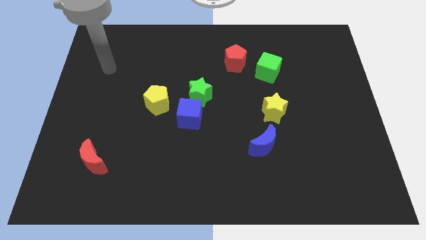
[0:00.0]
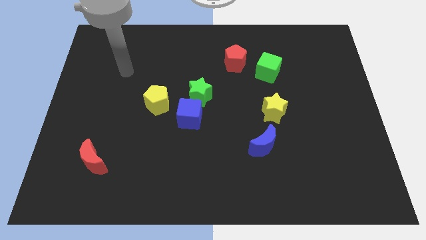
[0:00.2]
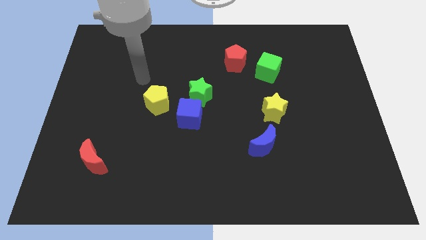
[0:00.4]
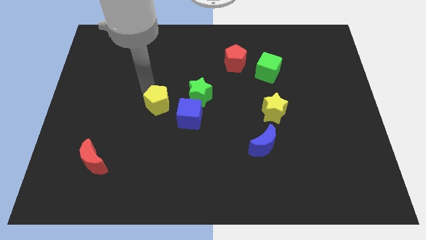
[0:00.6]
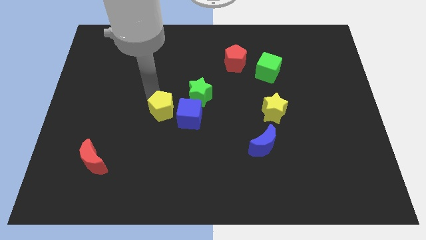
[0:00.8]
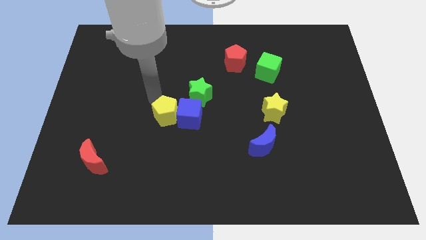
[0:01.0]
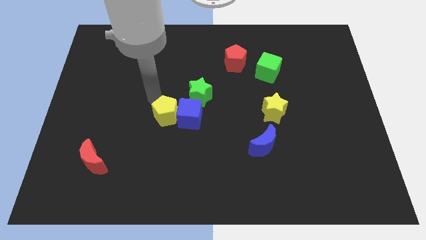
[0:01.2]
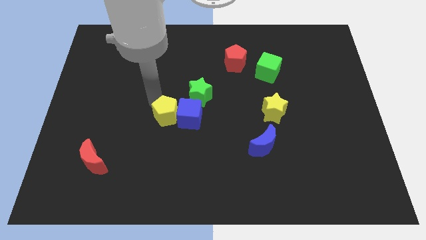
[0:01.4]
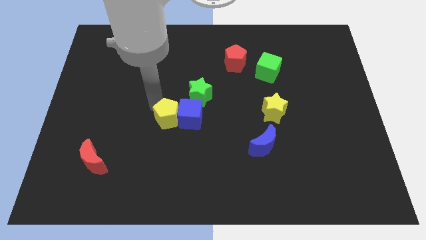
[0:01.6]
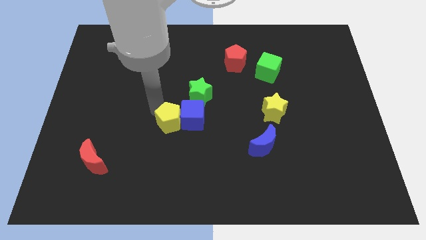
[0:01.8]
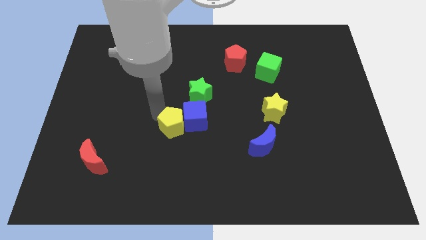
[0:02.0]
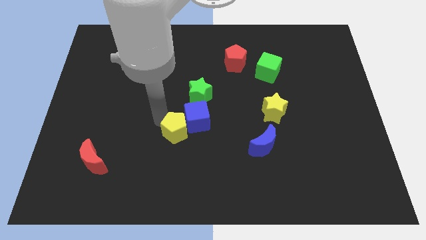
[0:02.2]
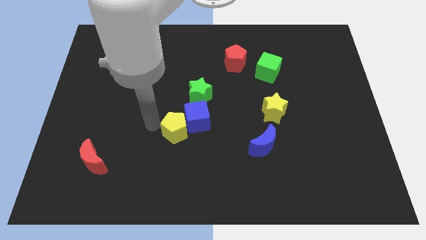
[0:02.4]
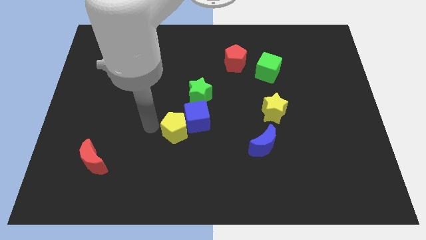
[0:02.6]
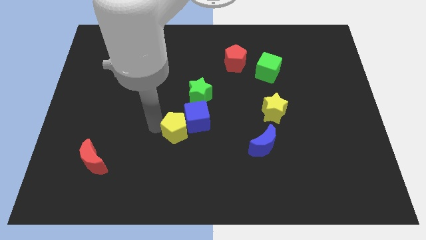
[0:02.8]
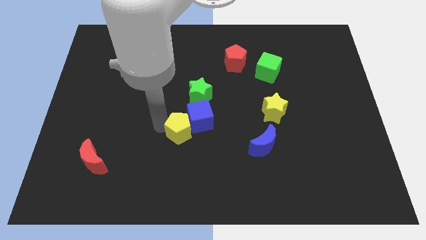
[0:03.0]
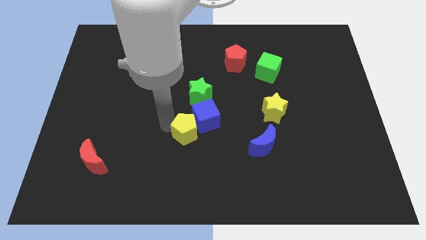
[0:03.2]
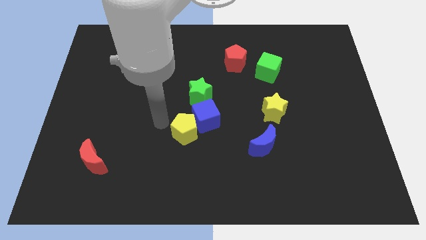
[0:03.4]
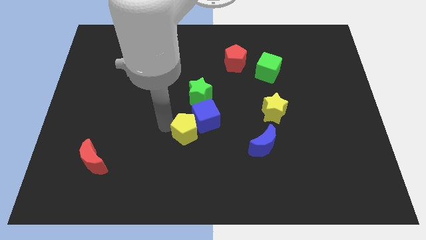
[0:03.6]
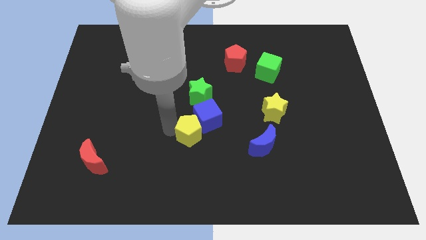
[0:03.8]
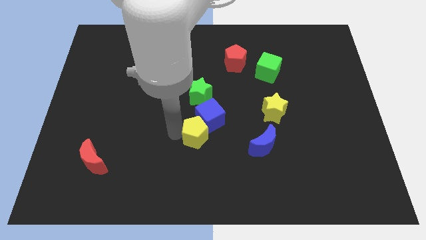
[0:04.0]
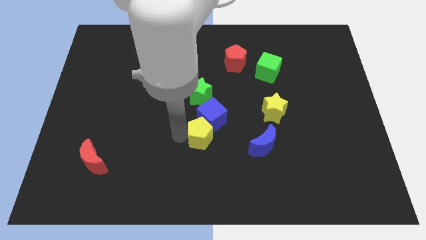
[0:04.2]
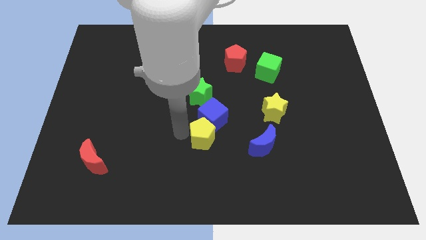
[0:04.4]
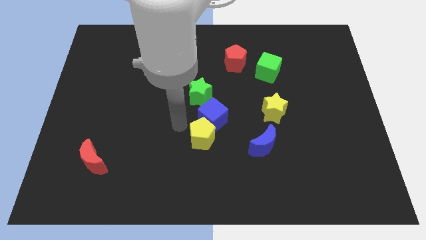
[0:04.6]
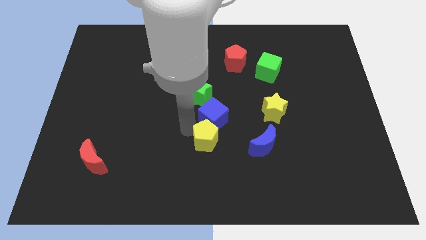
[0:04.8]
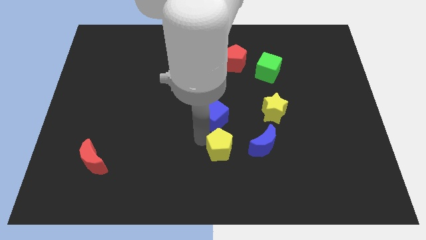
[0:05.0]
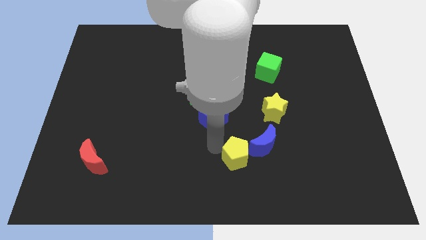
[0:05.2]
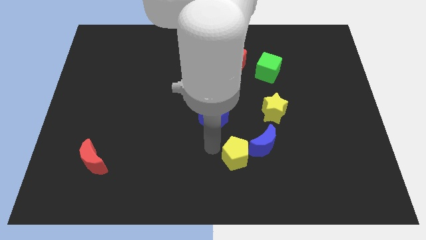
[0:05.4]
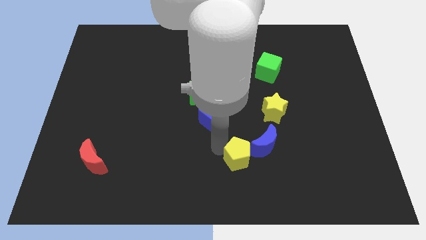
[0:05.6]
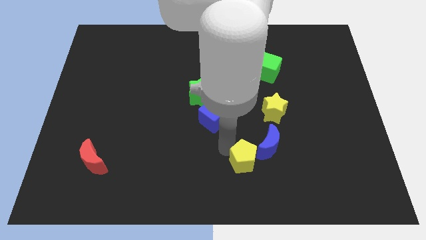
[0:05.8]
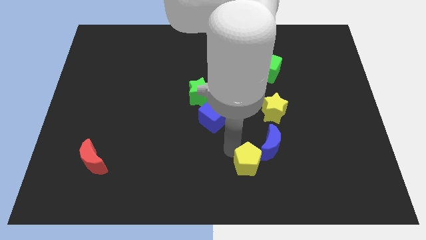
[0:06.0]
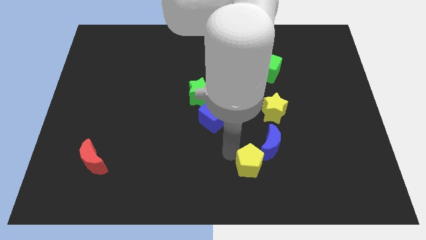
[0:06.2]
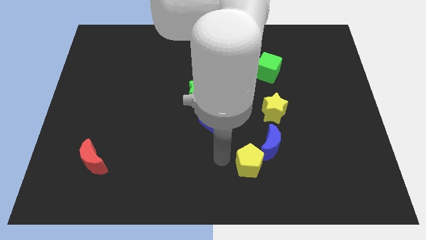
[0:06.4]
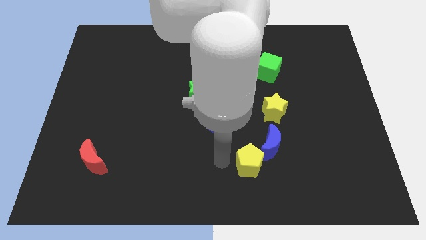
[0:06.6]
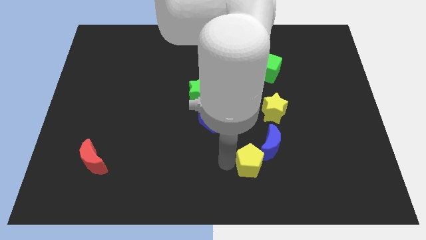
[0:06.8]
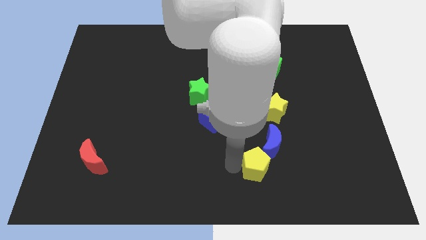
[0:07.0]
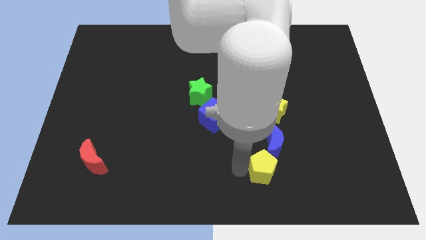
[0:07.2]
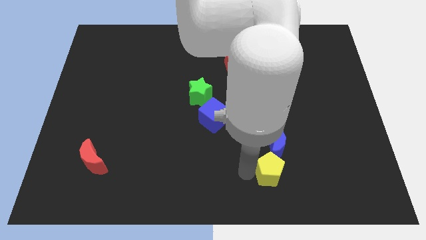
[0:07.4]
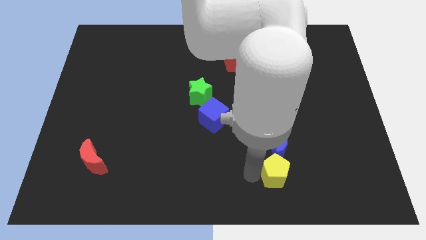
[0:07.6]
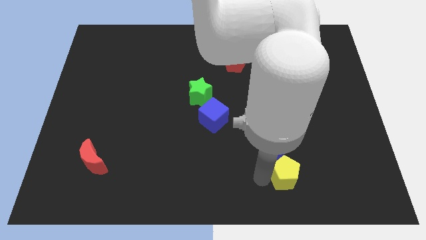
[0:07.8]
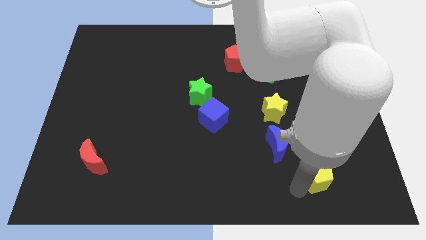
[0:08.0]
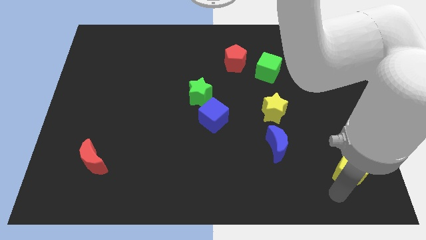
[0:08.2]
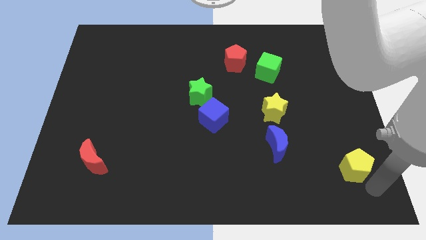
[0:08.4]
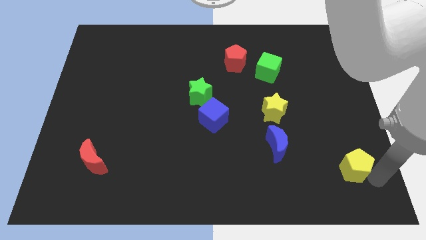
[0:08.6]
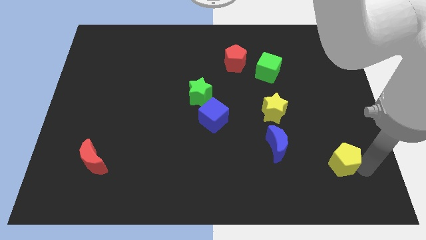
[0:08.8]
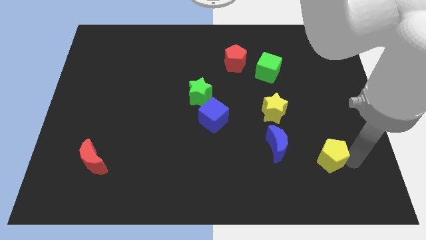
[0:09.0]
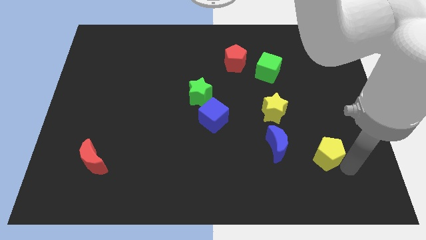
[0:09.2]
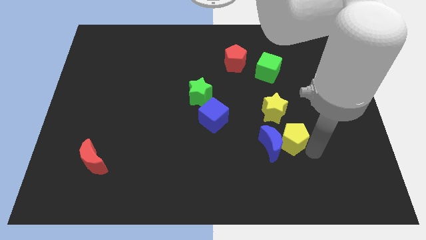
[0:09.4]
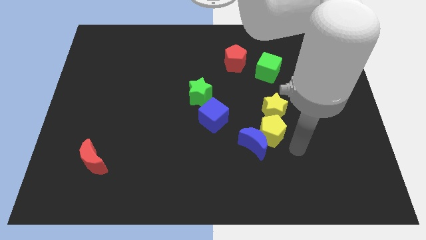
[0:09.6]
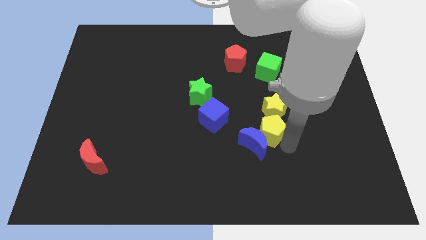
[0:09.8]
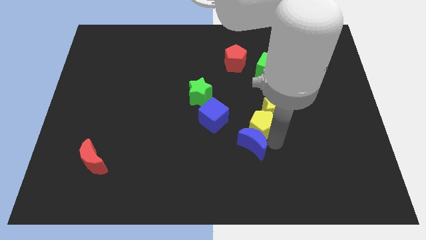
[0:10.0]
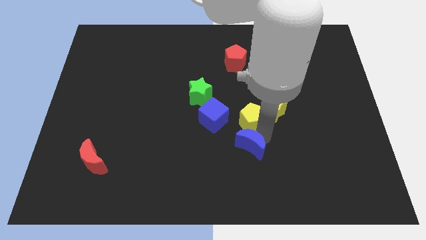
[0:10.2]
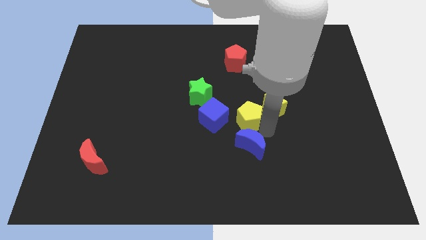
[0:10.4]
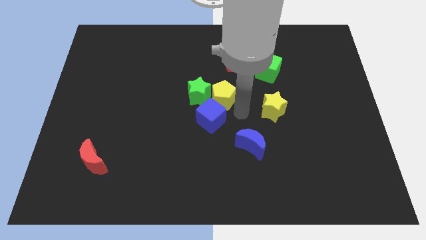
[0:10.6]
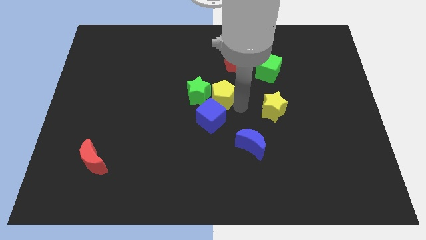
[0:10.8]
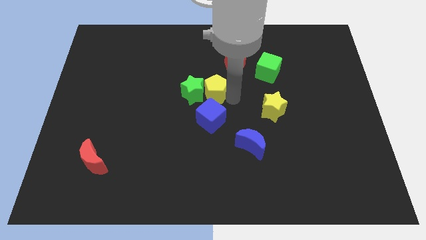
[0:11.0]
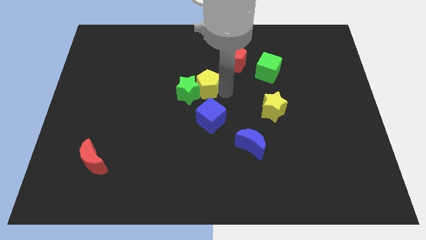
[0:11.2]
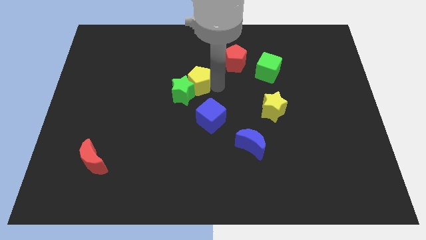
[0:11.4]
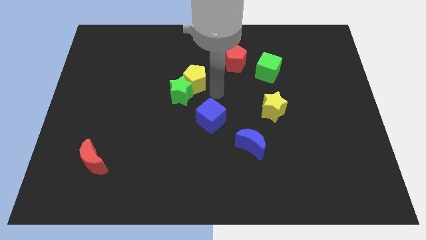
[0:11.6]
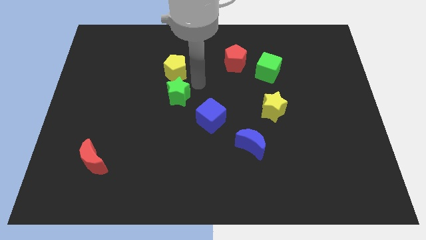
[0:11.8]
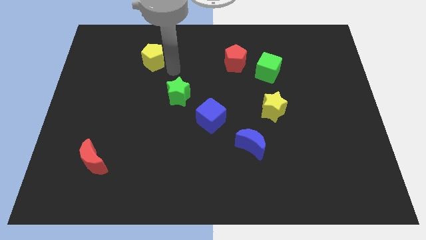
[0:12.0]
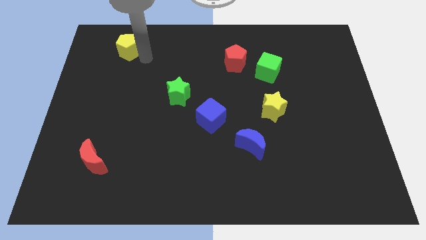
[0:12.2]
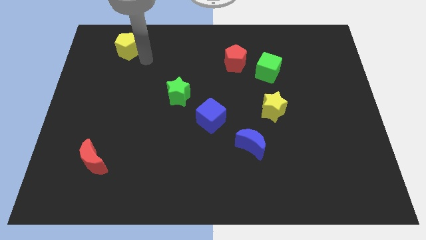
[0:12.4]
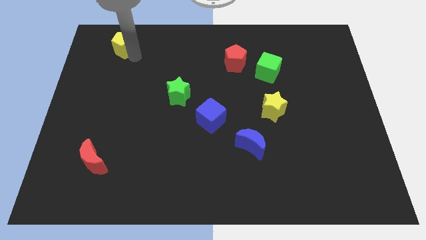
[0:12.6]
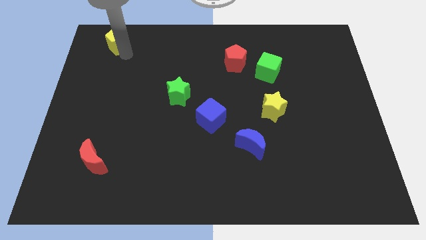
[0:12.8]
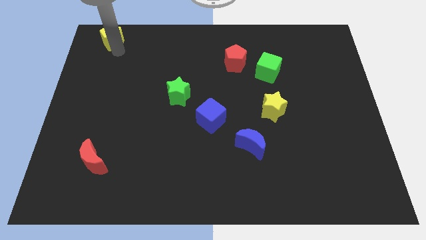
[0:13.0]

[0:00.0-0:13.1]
put the yellow pentagon to the top left corner

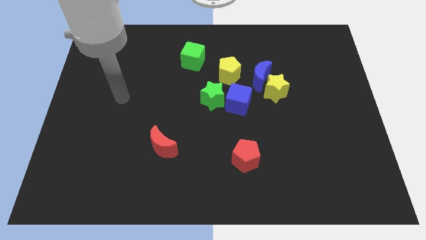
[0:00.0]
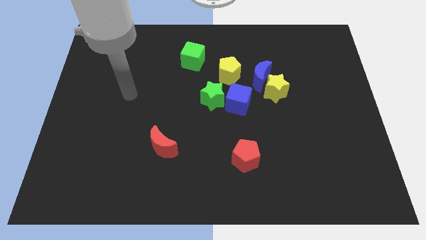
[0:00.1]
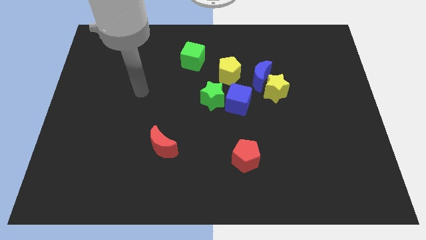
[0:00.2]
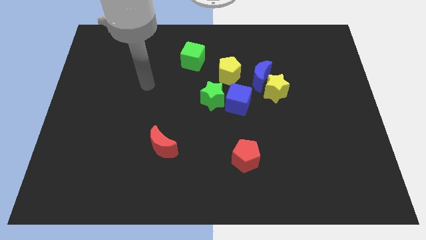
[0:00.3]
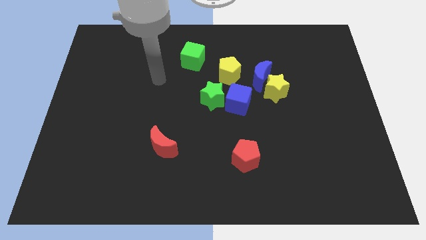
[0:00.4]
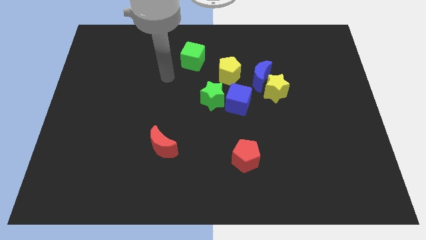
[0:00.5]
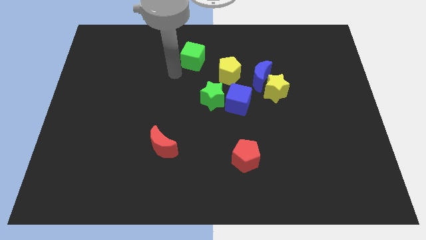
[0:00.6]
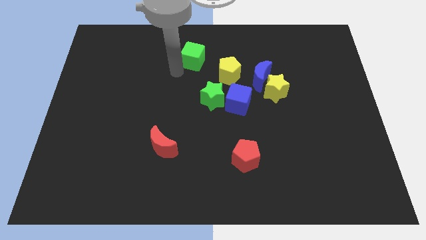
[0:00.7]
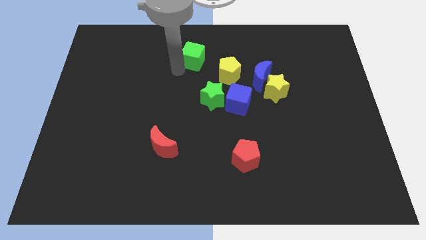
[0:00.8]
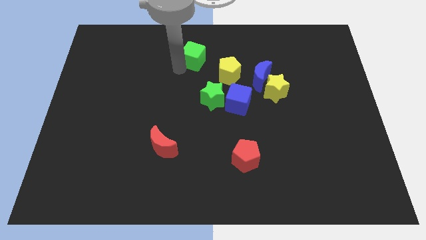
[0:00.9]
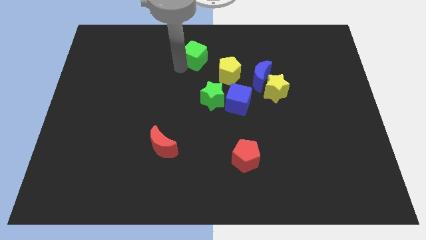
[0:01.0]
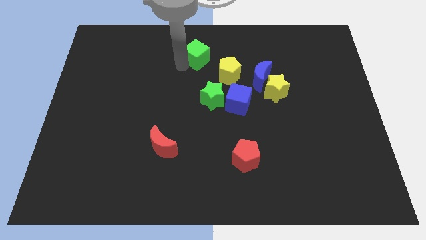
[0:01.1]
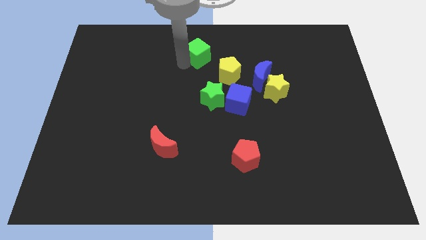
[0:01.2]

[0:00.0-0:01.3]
put the green cube to the top side
